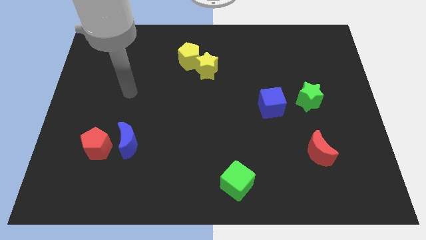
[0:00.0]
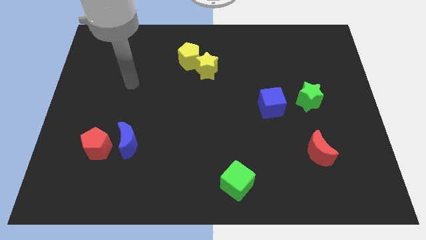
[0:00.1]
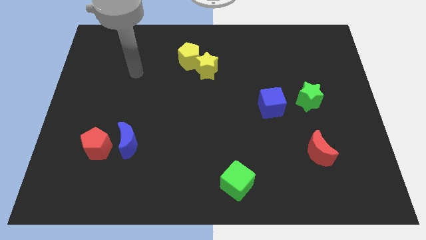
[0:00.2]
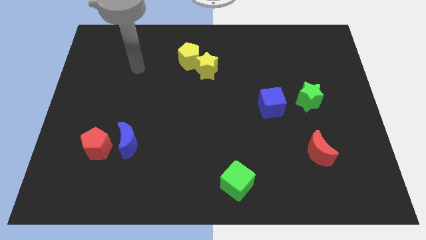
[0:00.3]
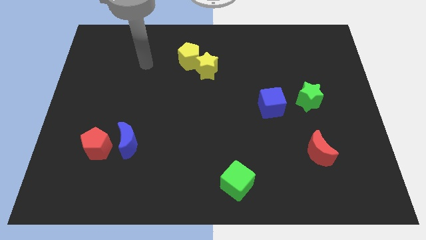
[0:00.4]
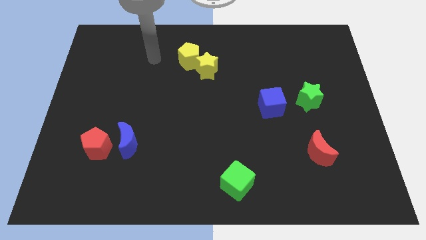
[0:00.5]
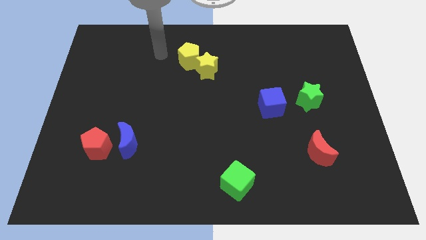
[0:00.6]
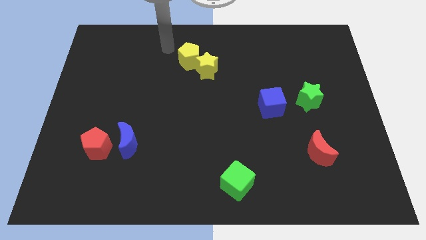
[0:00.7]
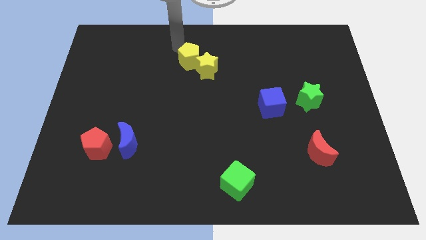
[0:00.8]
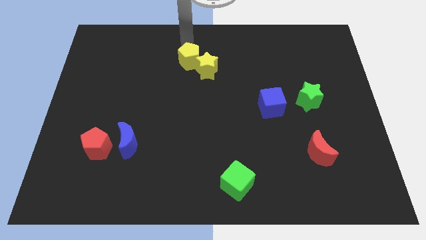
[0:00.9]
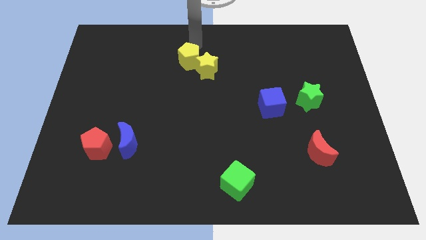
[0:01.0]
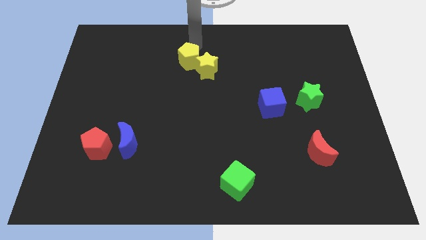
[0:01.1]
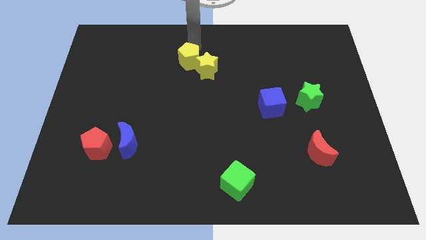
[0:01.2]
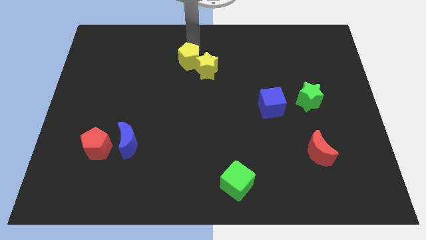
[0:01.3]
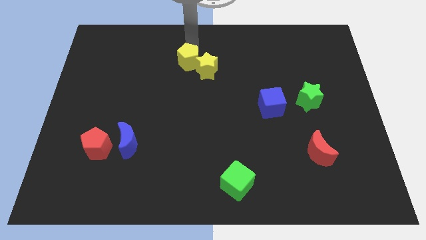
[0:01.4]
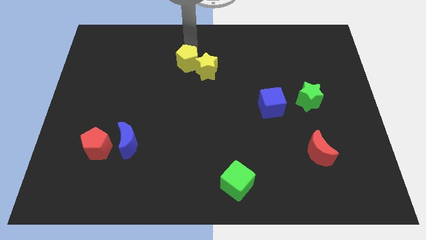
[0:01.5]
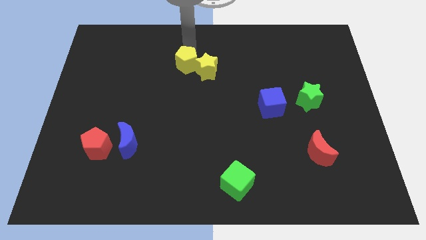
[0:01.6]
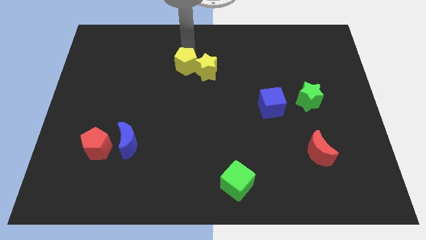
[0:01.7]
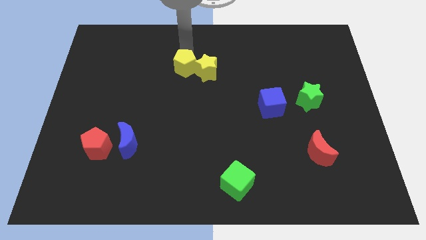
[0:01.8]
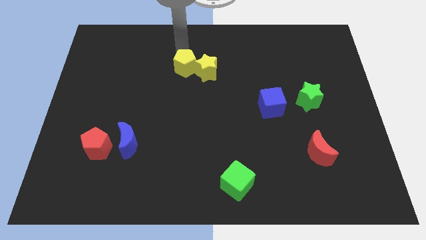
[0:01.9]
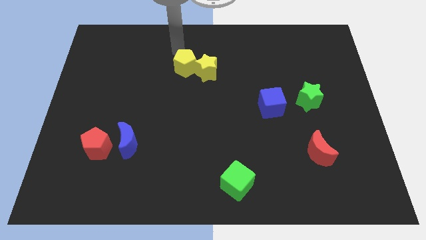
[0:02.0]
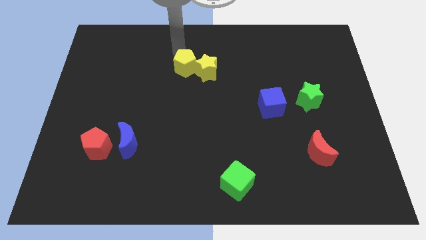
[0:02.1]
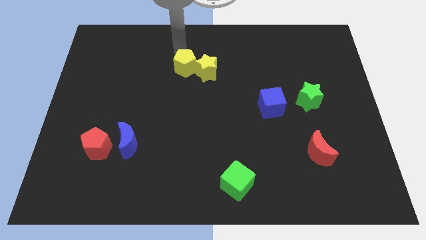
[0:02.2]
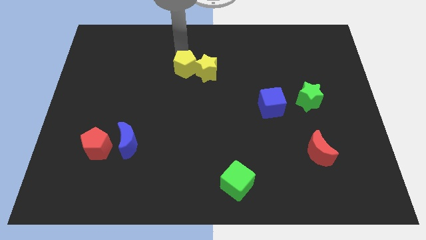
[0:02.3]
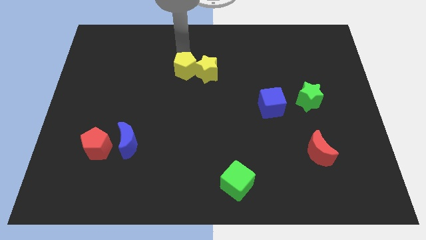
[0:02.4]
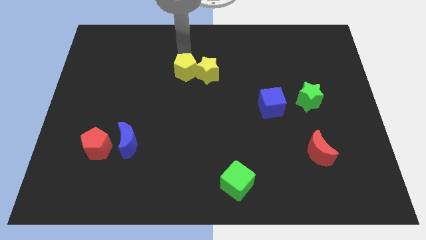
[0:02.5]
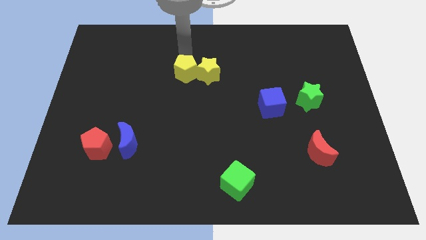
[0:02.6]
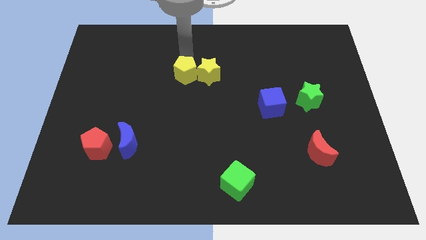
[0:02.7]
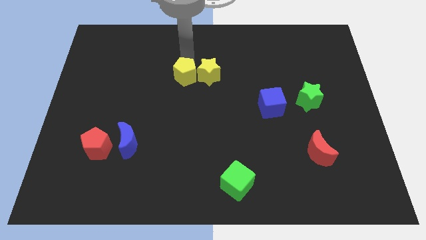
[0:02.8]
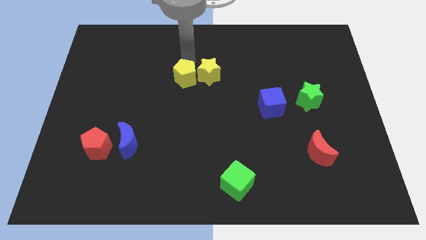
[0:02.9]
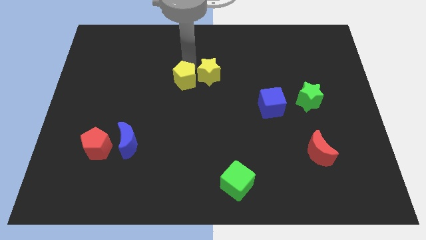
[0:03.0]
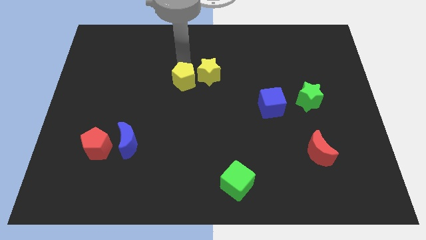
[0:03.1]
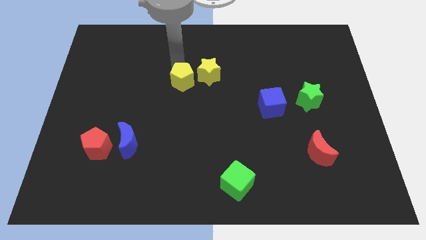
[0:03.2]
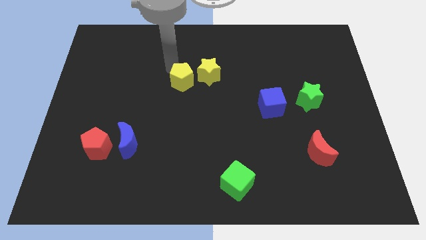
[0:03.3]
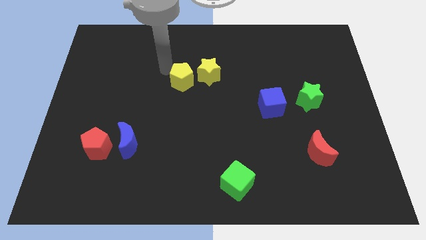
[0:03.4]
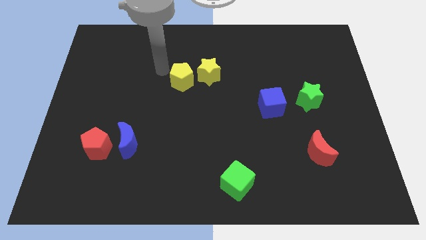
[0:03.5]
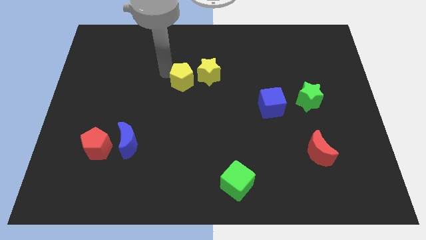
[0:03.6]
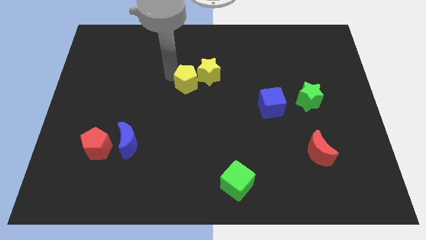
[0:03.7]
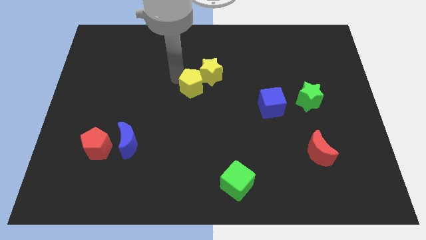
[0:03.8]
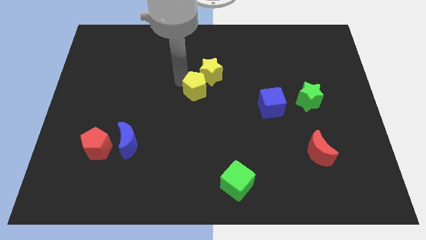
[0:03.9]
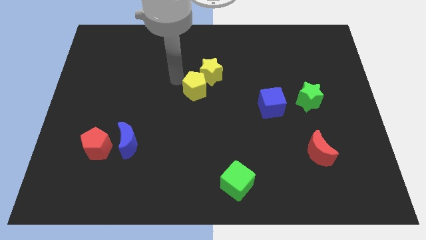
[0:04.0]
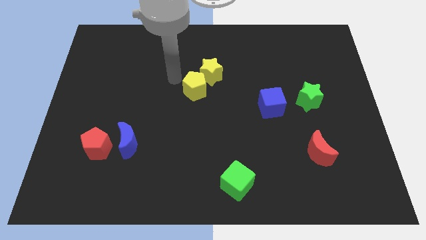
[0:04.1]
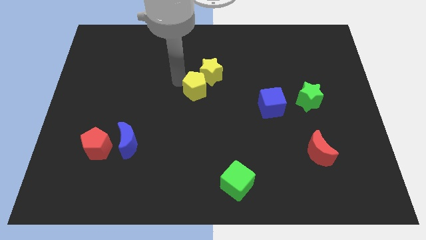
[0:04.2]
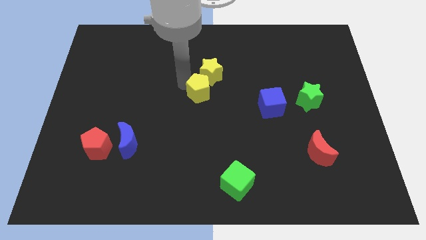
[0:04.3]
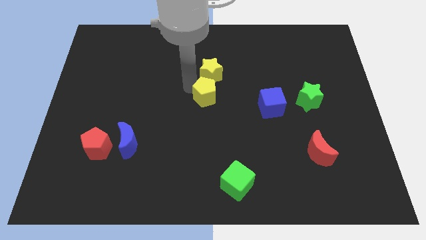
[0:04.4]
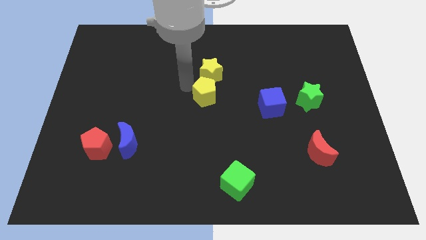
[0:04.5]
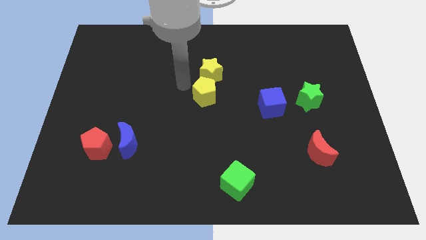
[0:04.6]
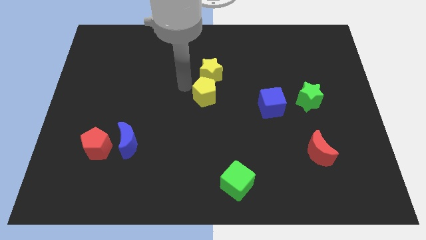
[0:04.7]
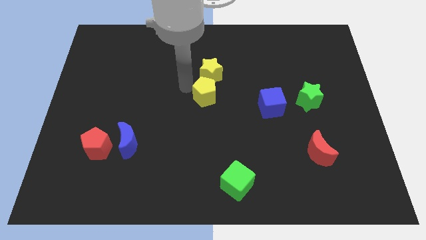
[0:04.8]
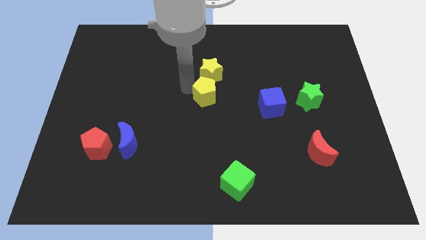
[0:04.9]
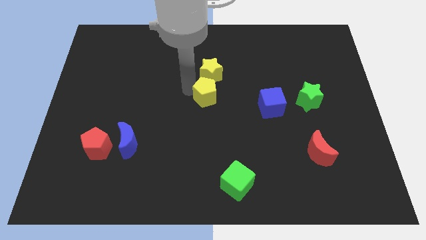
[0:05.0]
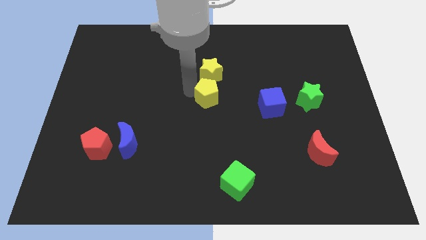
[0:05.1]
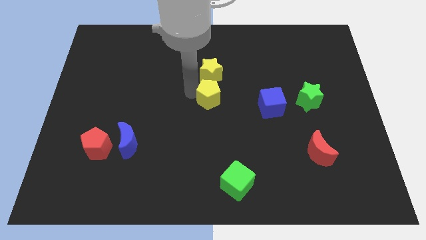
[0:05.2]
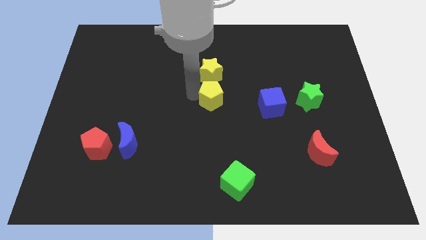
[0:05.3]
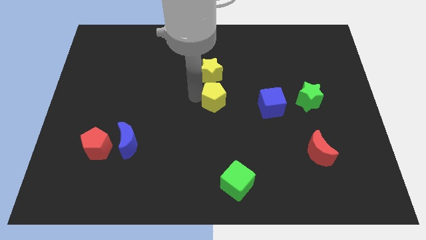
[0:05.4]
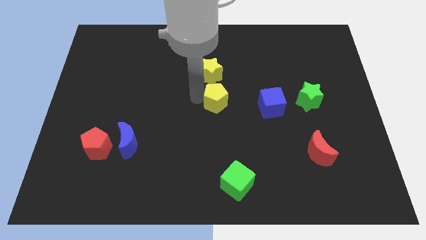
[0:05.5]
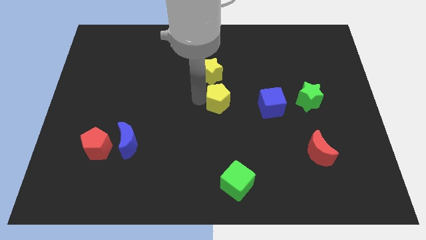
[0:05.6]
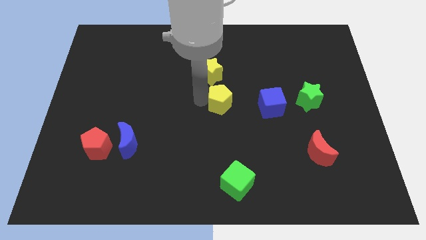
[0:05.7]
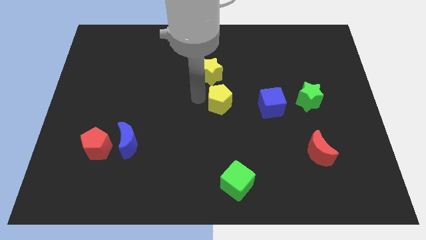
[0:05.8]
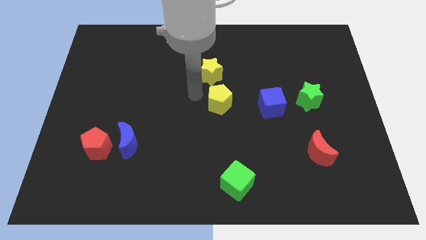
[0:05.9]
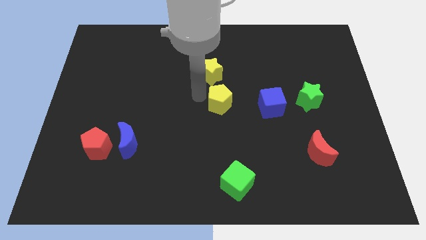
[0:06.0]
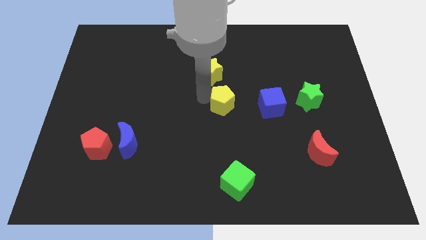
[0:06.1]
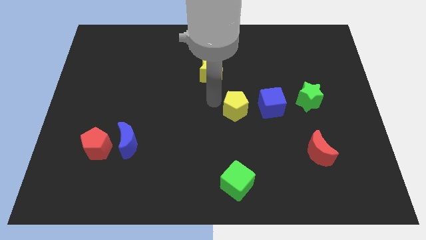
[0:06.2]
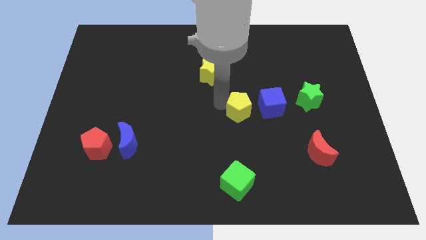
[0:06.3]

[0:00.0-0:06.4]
push the yellow pentagon down and right

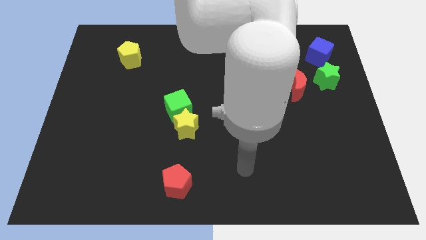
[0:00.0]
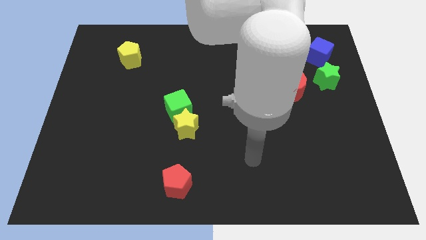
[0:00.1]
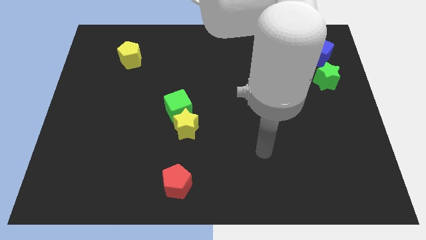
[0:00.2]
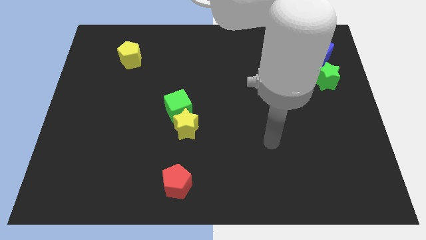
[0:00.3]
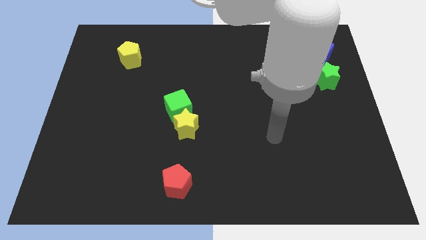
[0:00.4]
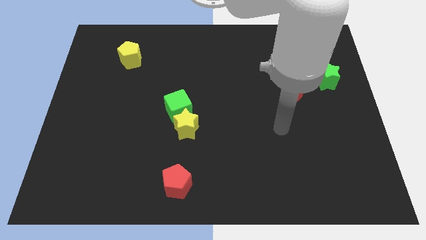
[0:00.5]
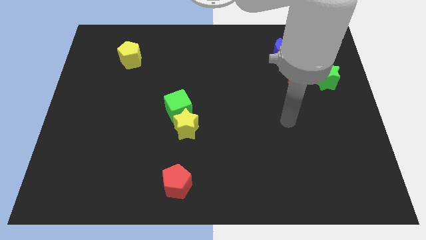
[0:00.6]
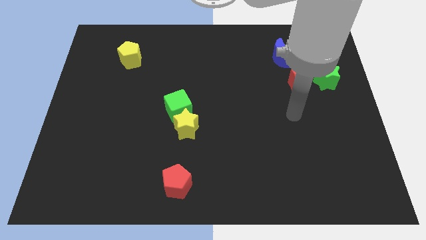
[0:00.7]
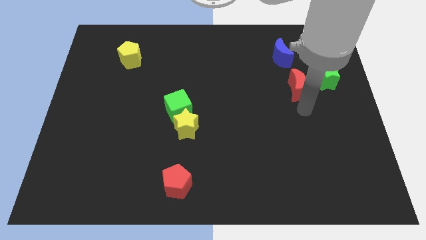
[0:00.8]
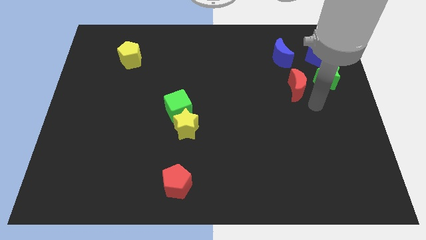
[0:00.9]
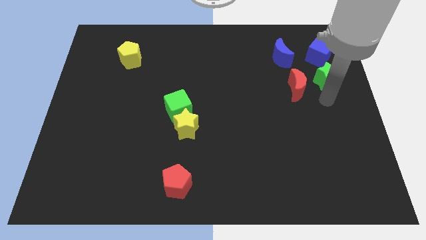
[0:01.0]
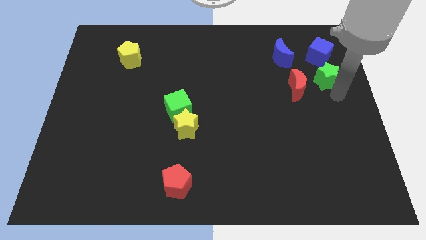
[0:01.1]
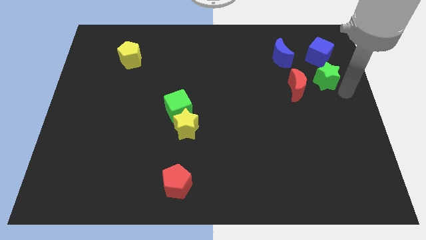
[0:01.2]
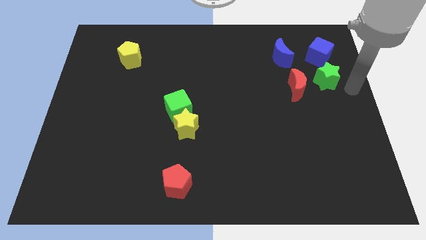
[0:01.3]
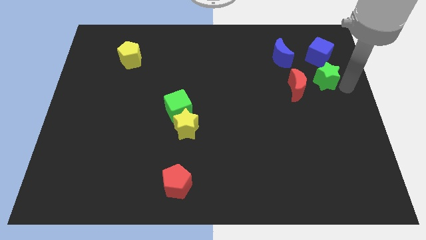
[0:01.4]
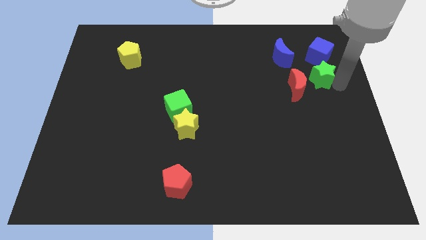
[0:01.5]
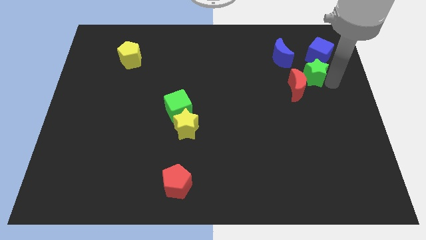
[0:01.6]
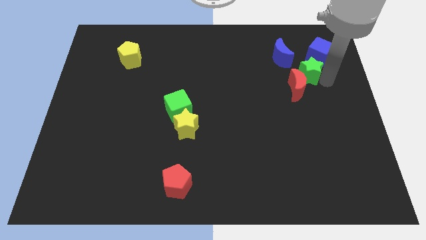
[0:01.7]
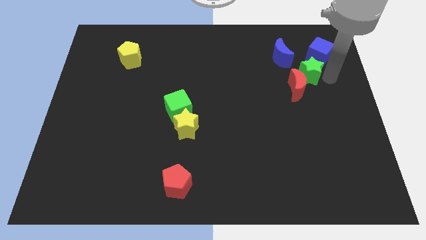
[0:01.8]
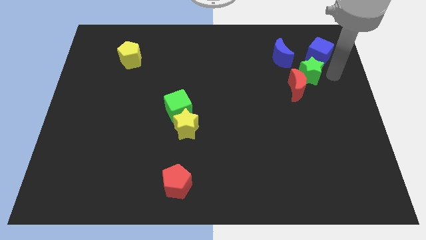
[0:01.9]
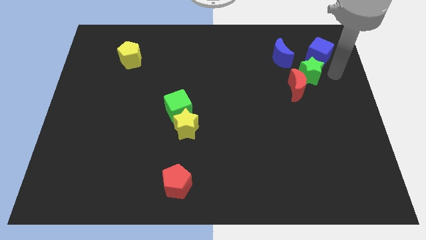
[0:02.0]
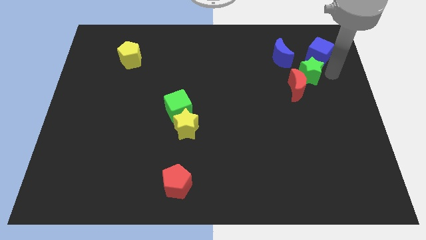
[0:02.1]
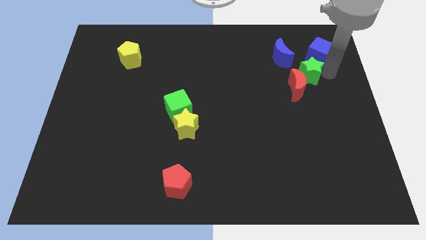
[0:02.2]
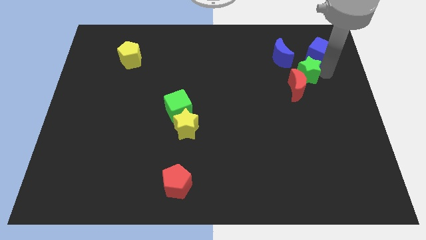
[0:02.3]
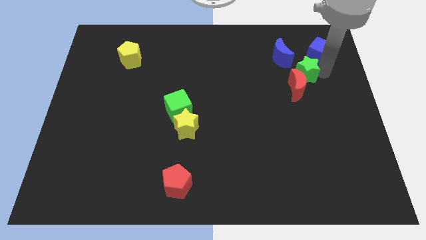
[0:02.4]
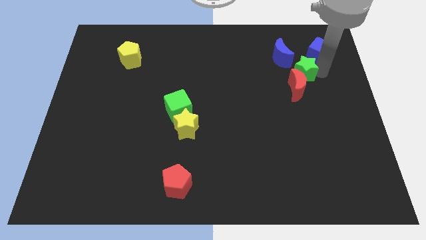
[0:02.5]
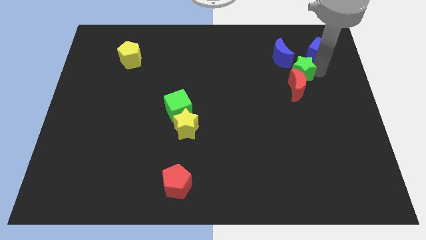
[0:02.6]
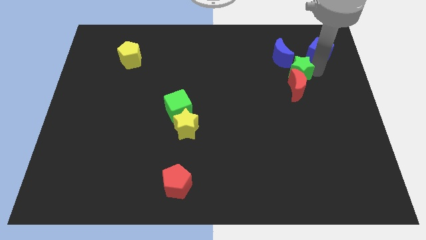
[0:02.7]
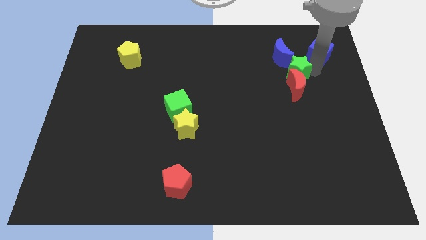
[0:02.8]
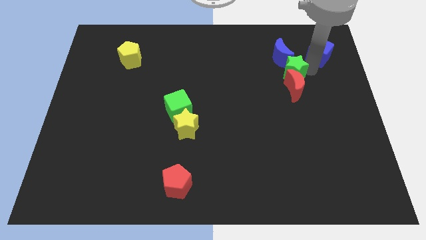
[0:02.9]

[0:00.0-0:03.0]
slide the green star somewhat to the left
